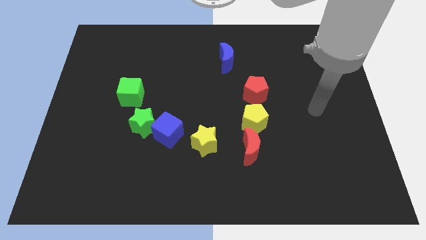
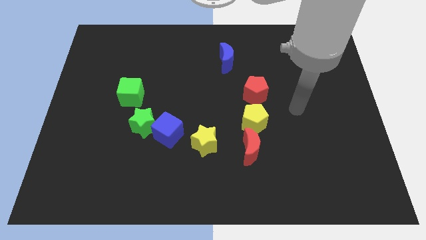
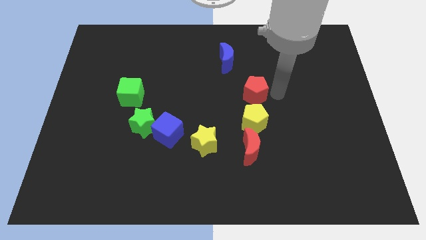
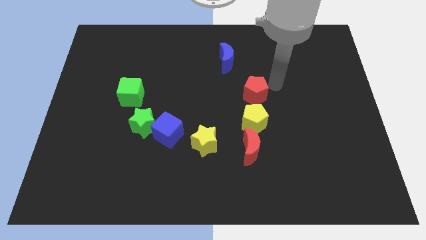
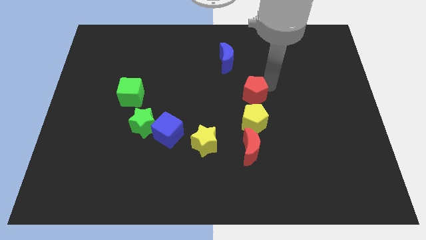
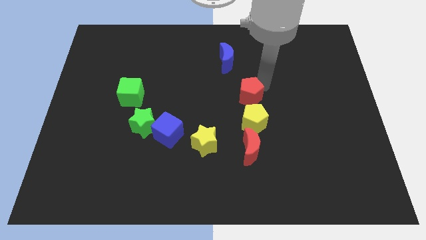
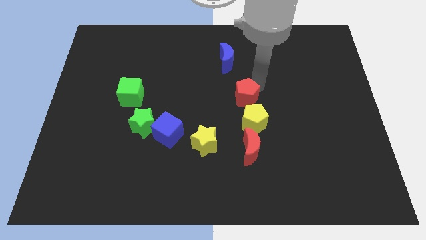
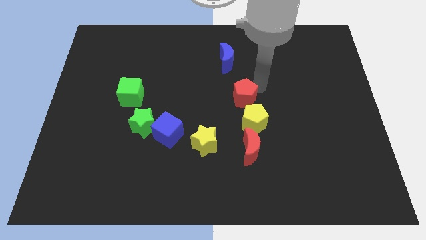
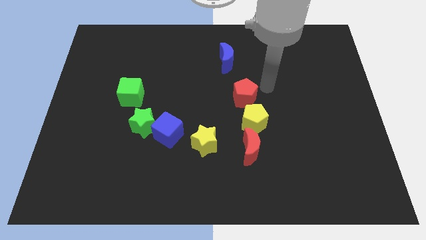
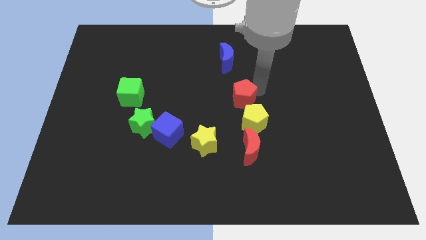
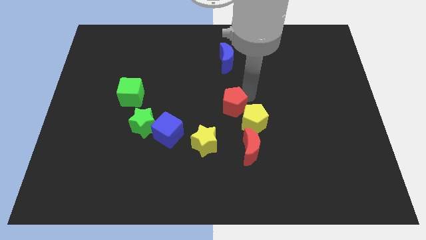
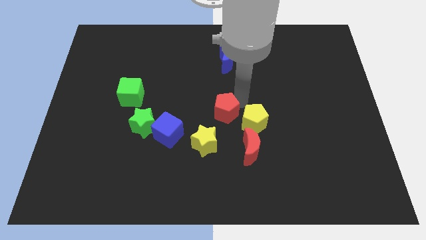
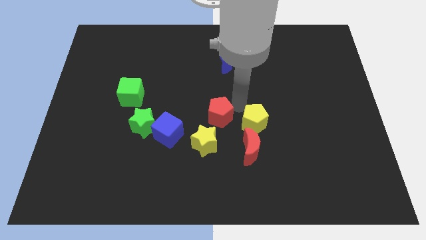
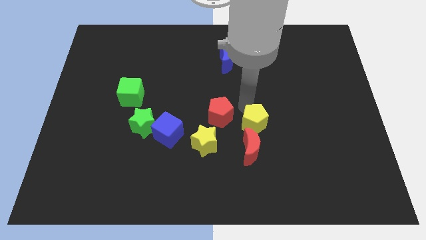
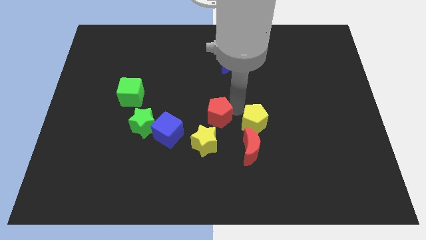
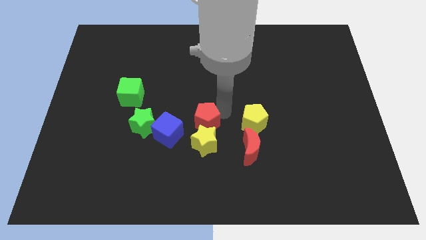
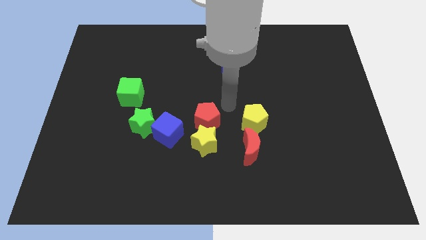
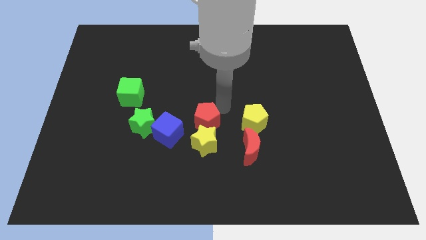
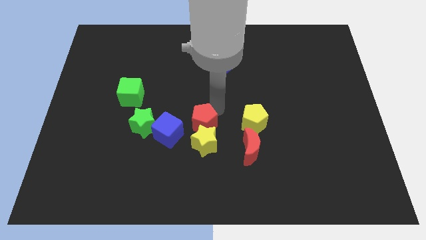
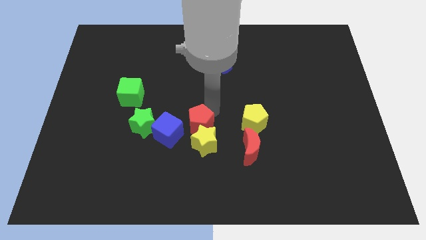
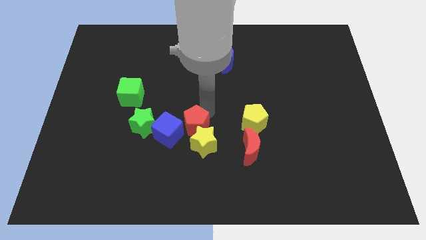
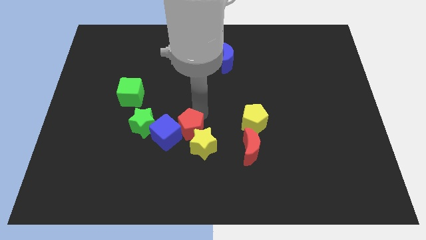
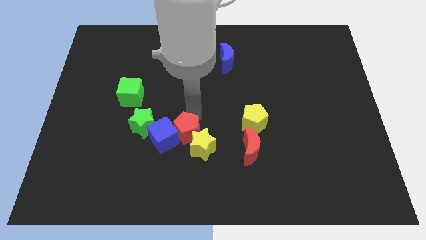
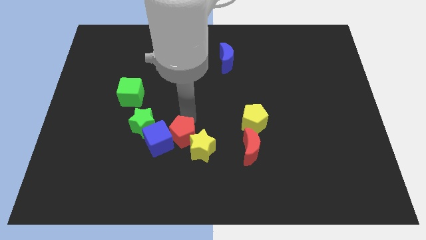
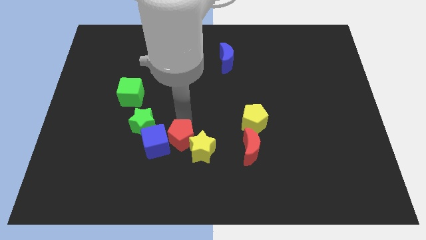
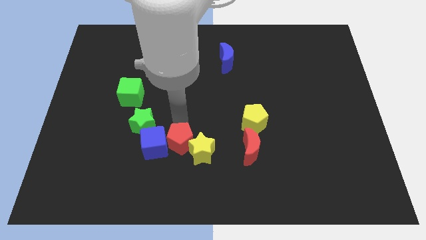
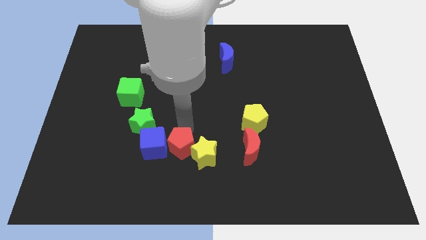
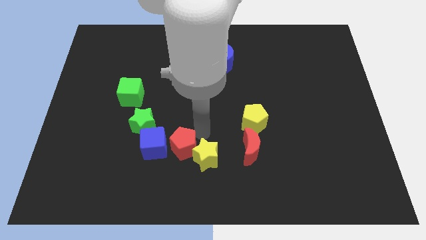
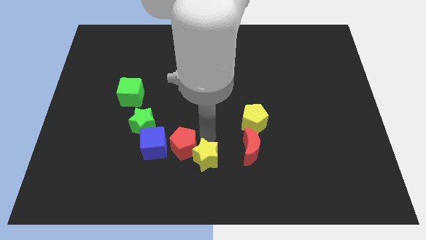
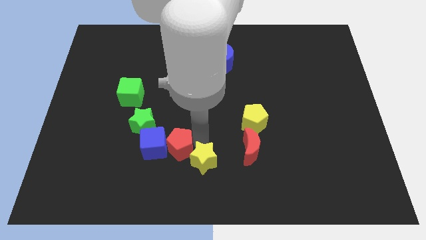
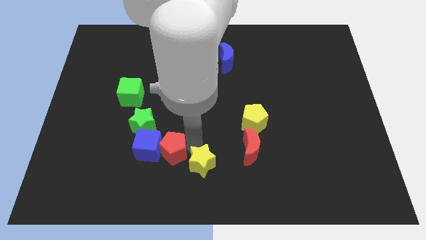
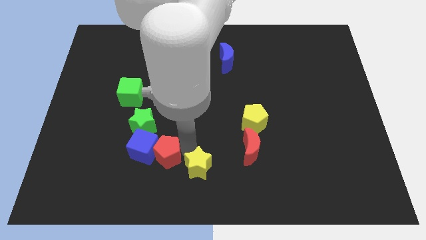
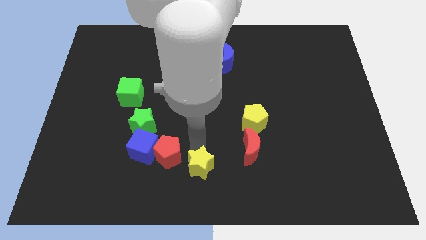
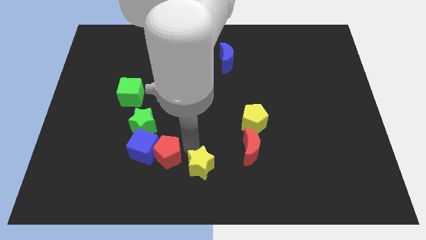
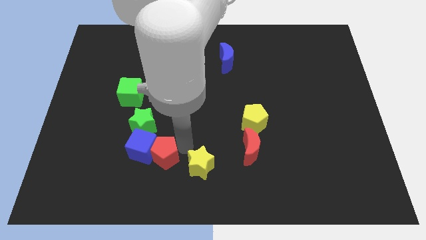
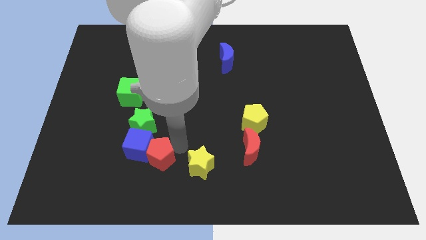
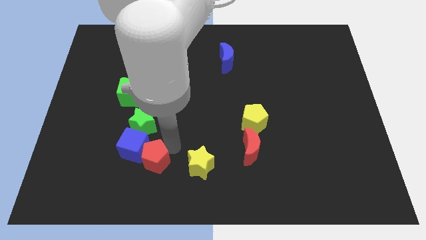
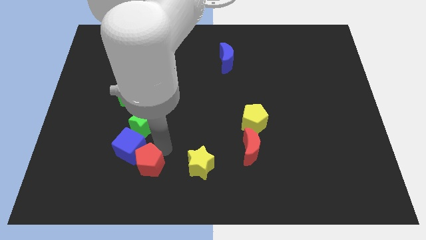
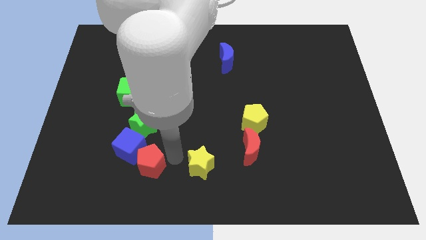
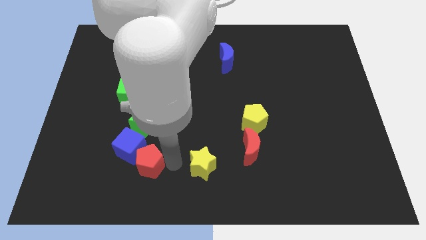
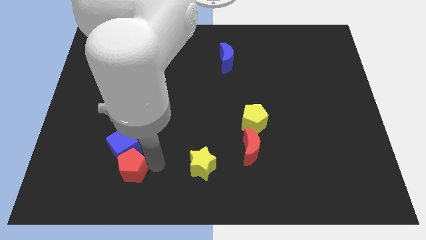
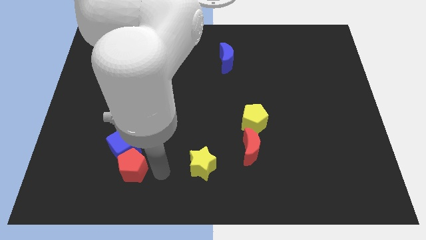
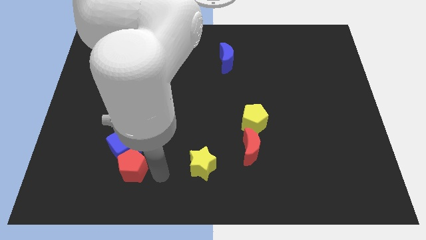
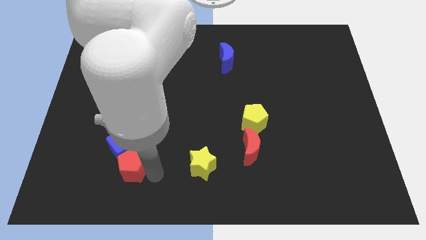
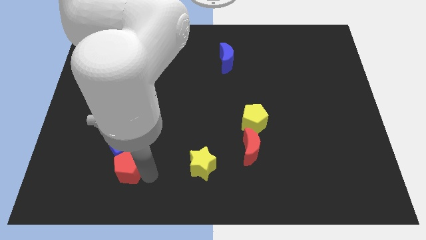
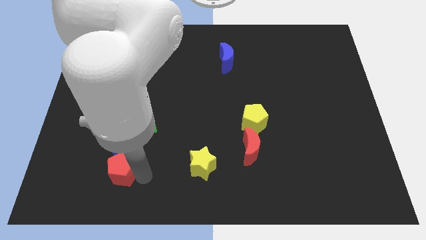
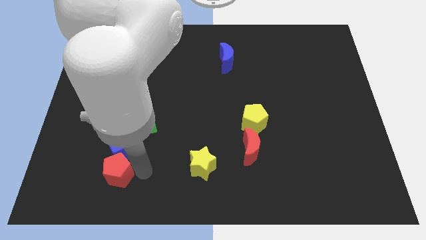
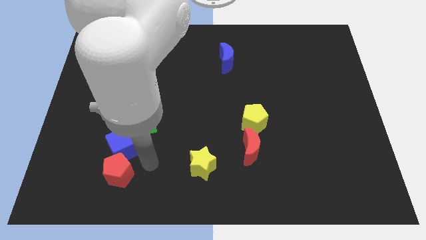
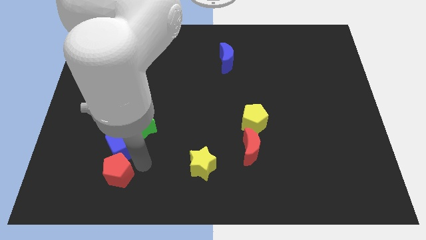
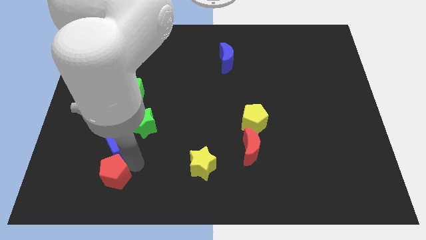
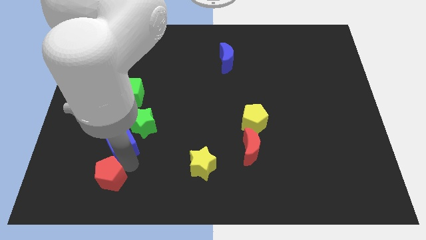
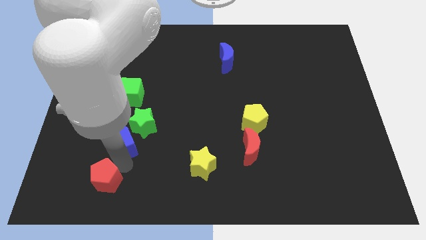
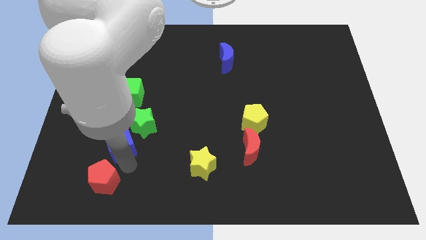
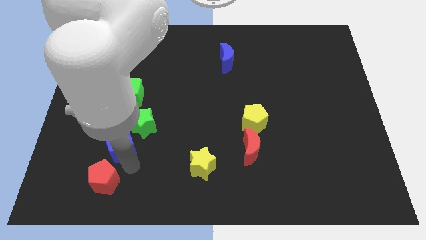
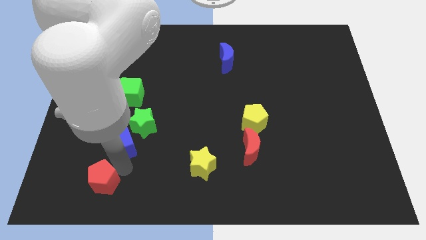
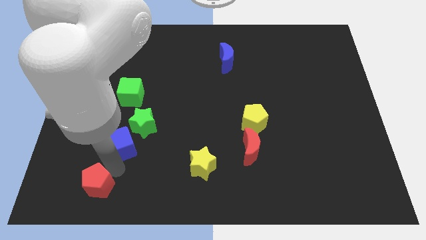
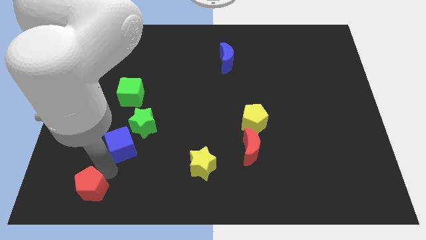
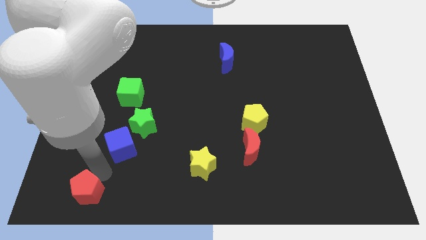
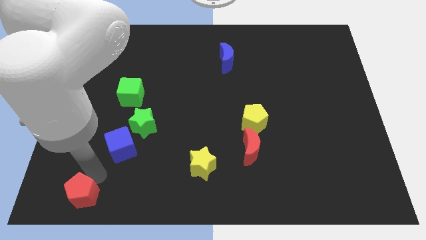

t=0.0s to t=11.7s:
slide the red pentagon to the bottom left of the board
